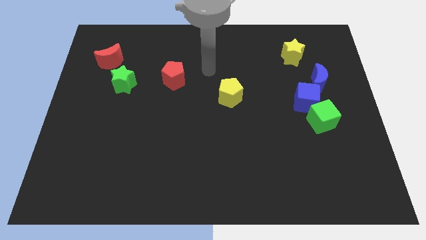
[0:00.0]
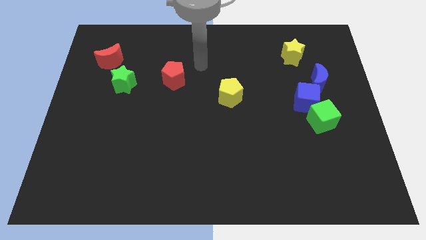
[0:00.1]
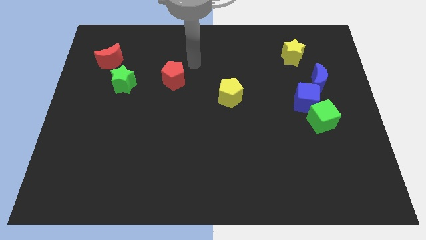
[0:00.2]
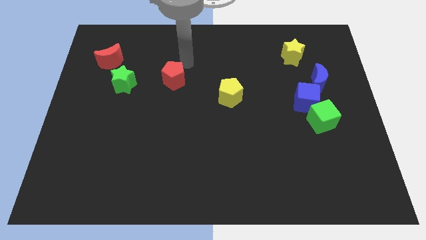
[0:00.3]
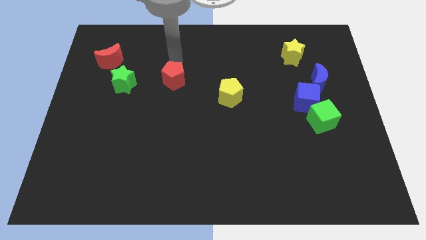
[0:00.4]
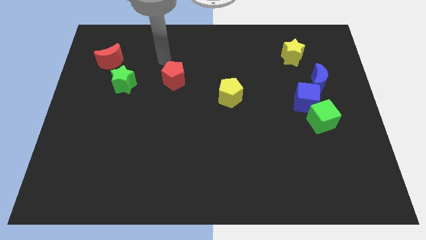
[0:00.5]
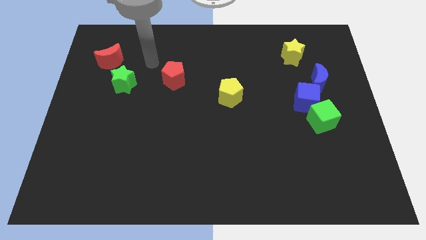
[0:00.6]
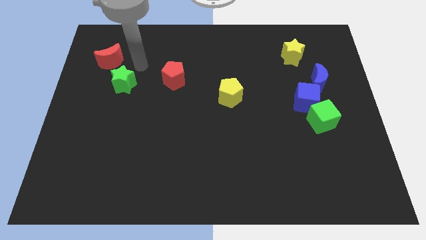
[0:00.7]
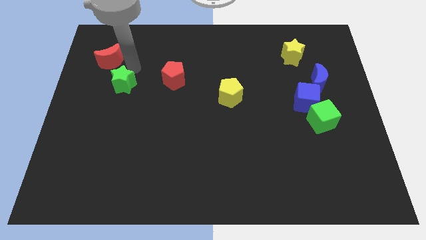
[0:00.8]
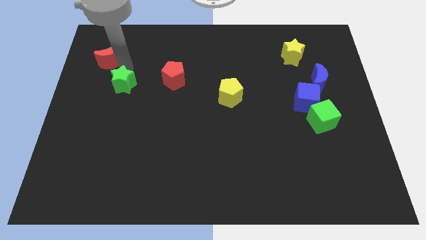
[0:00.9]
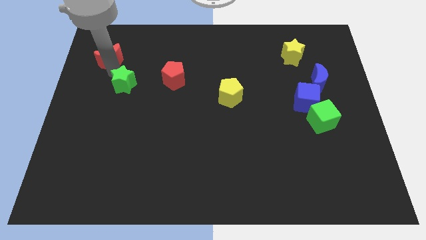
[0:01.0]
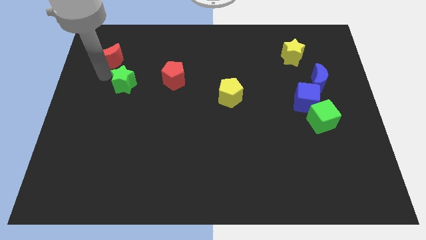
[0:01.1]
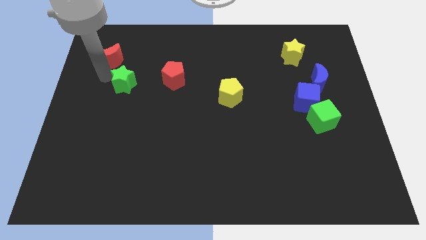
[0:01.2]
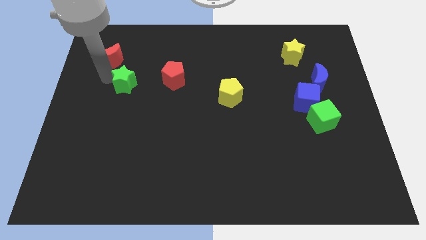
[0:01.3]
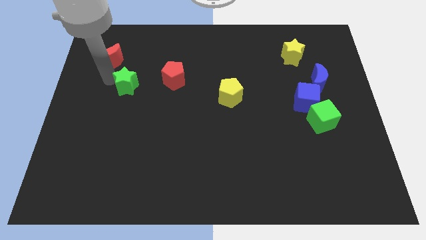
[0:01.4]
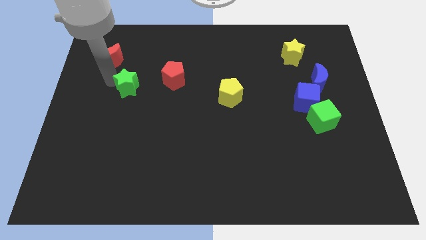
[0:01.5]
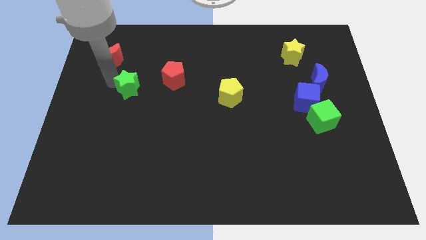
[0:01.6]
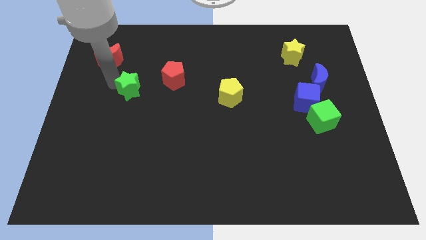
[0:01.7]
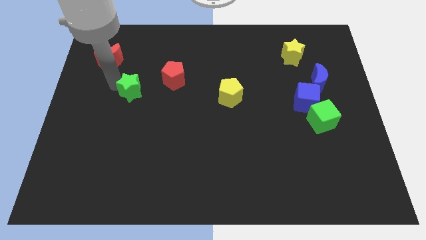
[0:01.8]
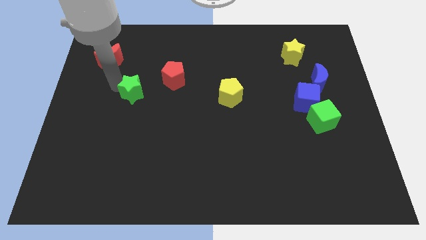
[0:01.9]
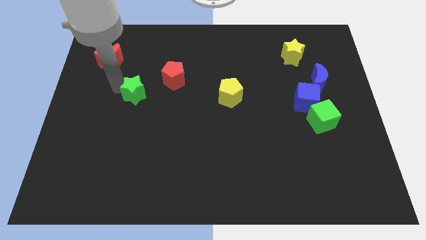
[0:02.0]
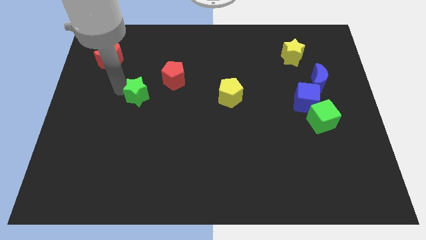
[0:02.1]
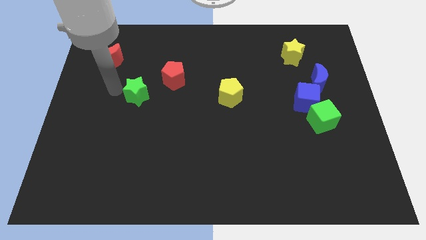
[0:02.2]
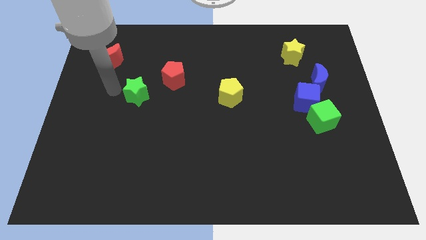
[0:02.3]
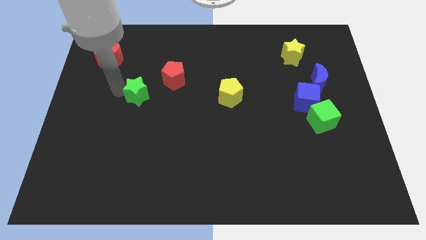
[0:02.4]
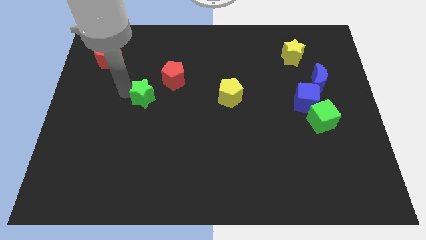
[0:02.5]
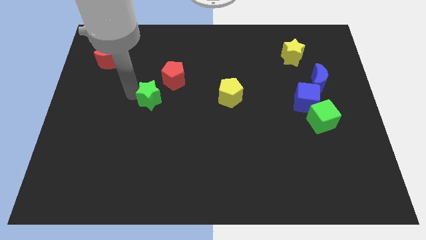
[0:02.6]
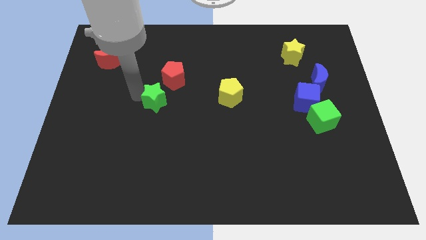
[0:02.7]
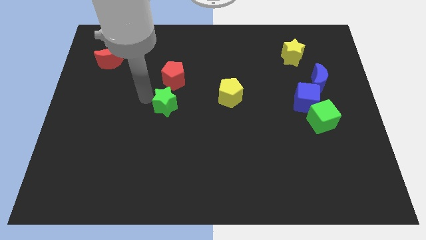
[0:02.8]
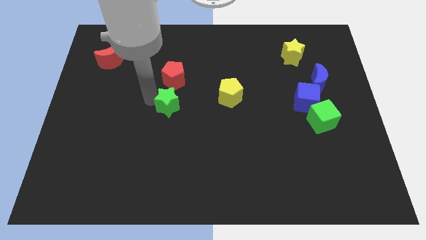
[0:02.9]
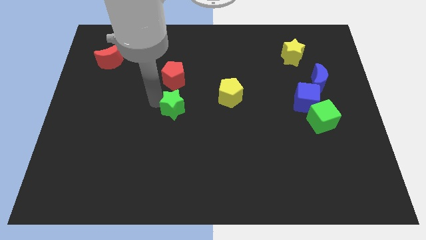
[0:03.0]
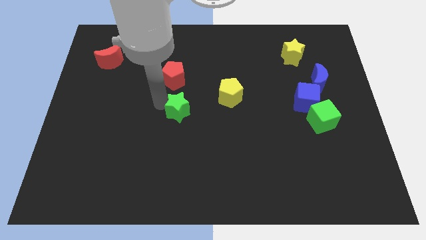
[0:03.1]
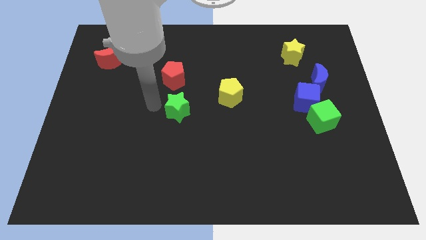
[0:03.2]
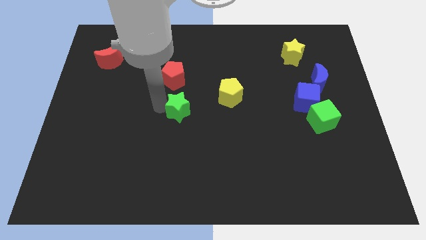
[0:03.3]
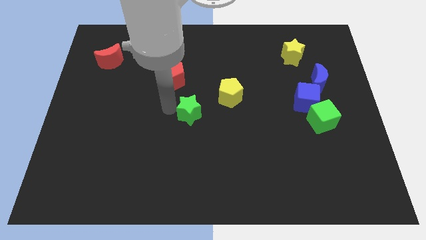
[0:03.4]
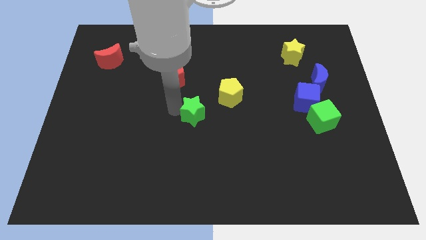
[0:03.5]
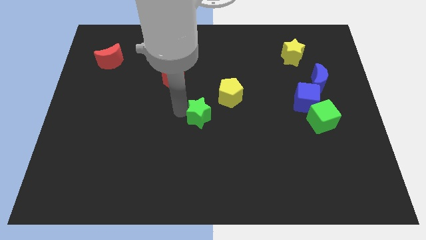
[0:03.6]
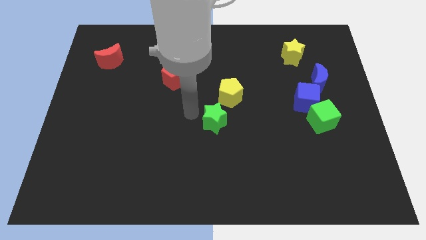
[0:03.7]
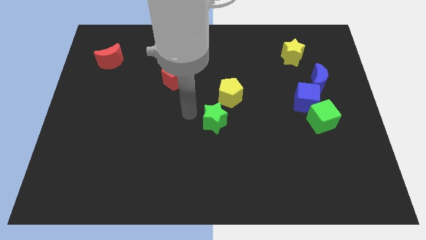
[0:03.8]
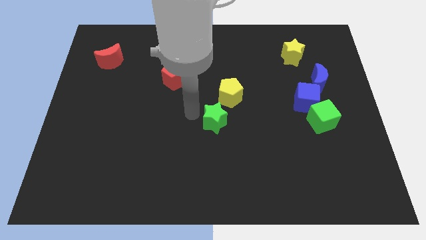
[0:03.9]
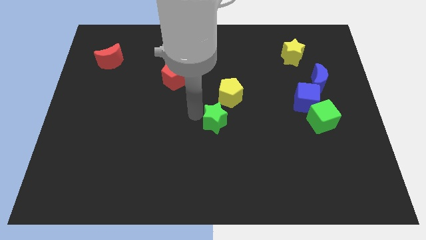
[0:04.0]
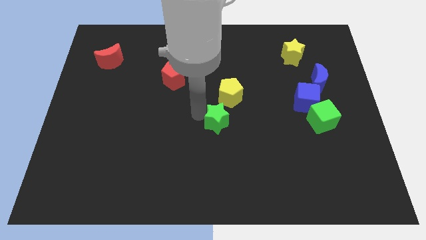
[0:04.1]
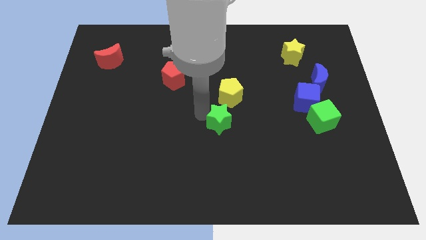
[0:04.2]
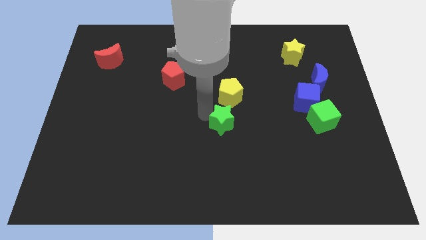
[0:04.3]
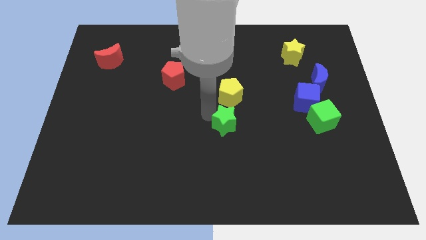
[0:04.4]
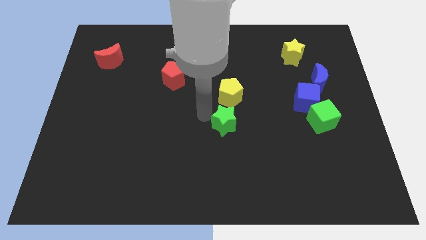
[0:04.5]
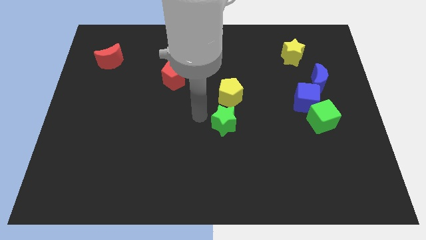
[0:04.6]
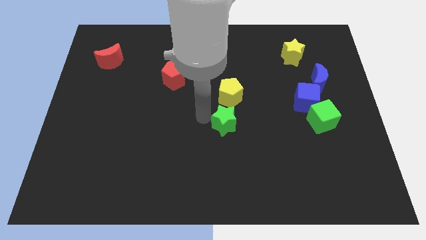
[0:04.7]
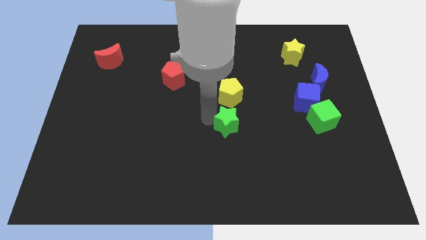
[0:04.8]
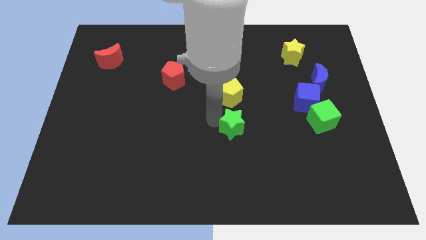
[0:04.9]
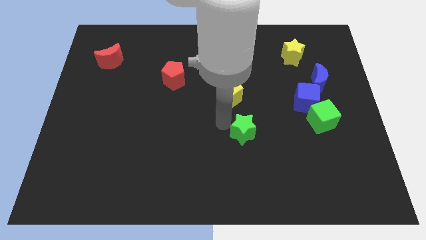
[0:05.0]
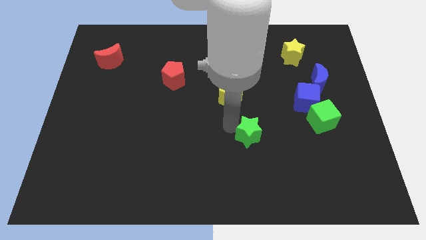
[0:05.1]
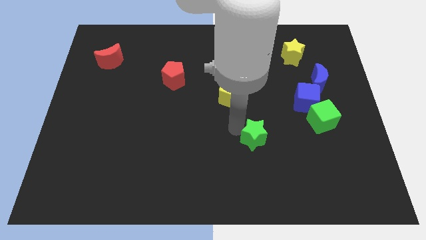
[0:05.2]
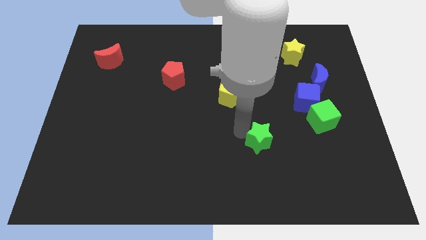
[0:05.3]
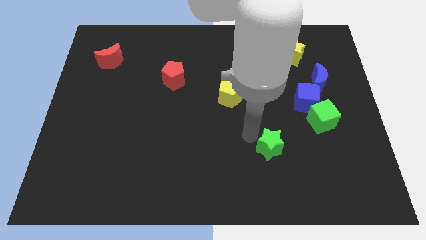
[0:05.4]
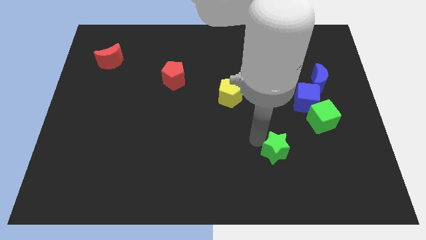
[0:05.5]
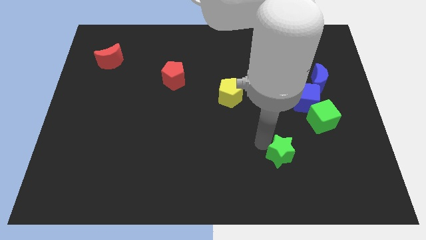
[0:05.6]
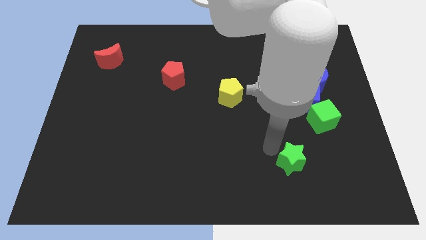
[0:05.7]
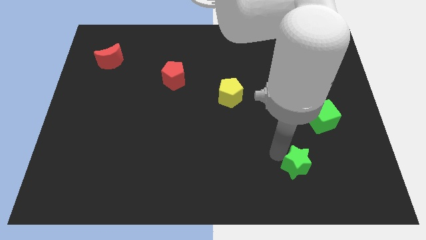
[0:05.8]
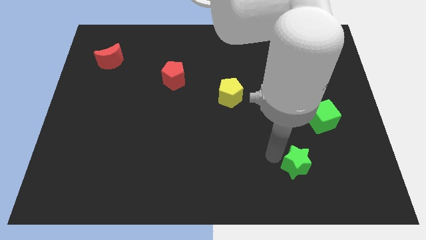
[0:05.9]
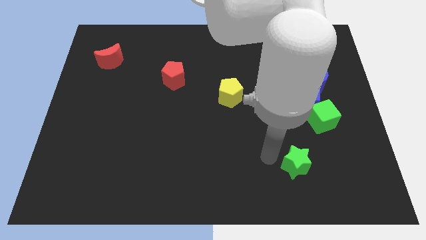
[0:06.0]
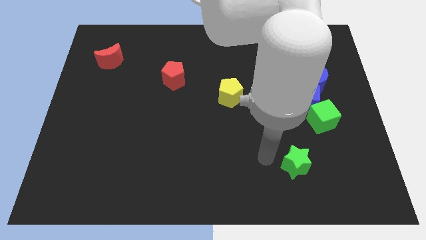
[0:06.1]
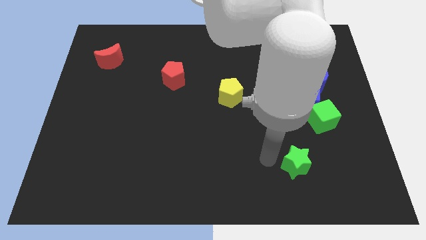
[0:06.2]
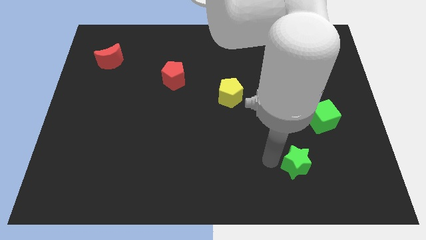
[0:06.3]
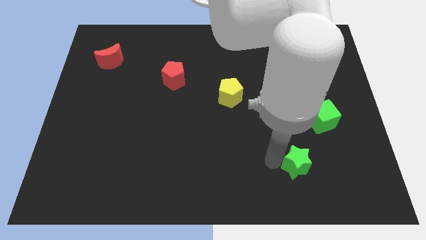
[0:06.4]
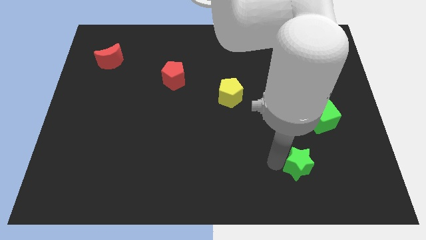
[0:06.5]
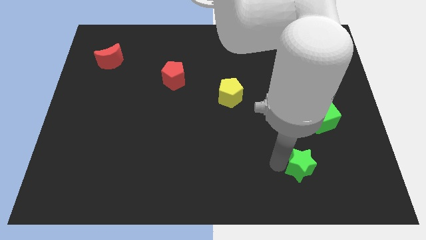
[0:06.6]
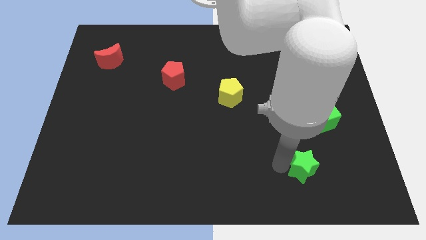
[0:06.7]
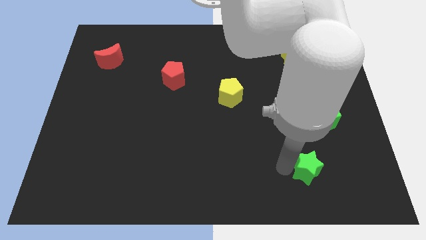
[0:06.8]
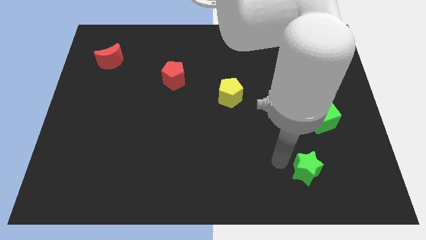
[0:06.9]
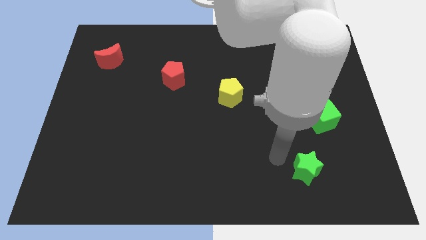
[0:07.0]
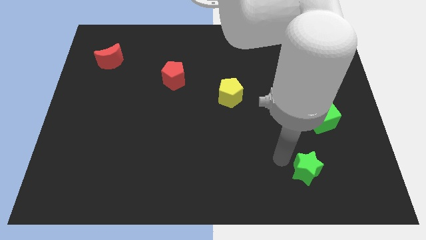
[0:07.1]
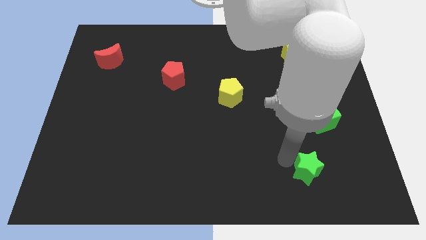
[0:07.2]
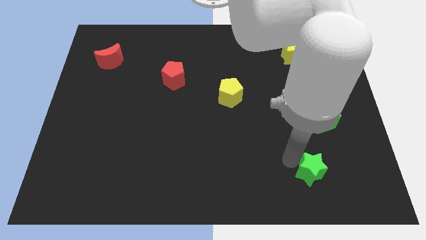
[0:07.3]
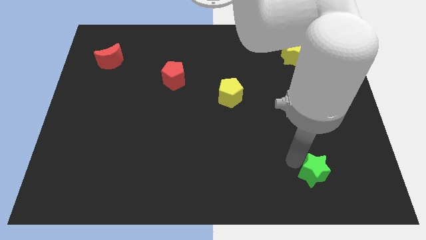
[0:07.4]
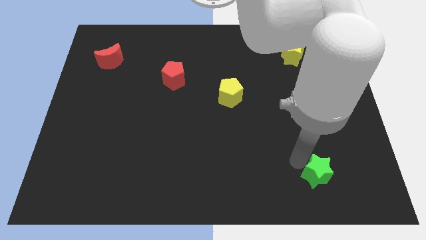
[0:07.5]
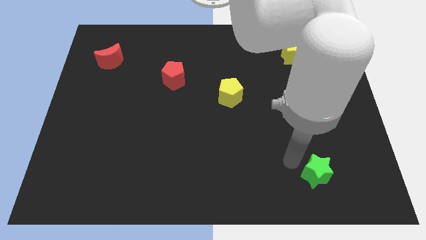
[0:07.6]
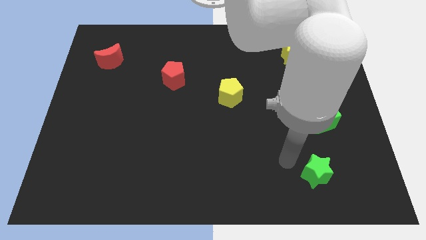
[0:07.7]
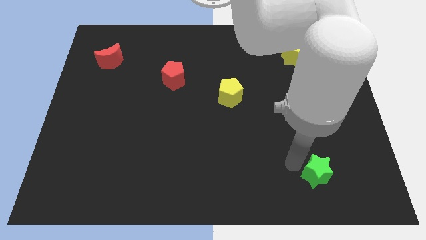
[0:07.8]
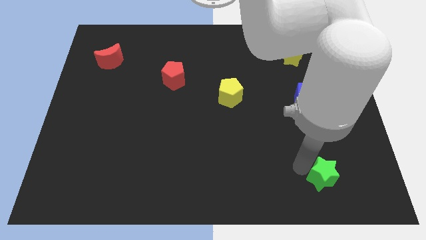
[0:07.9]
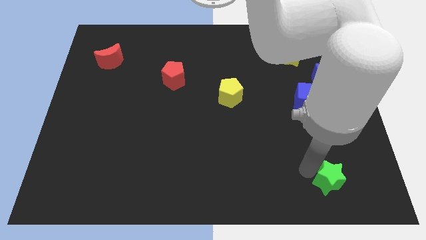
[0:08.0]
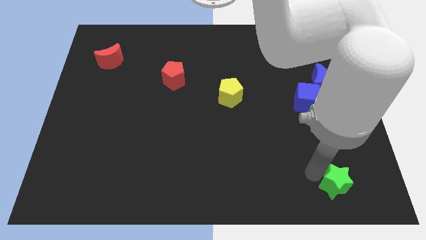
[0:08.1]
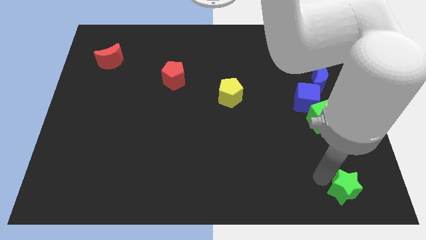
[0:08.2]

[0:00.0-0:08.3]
move the green star to the bottom right
